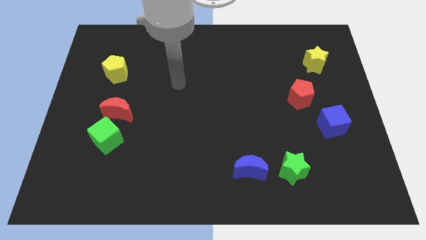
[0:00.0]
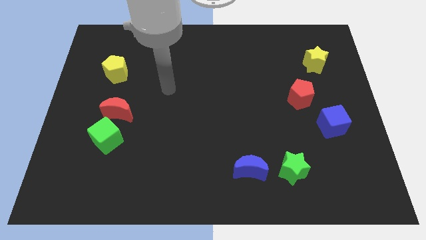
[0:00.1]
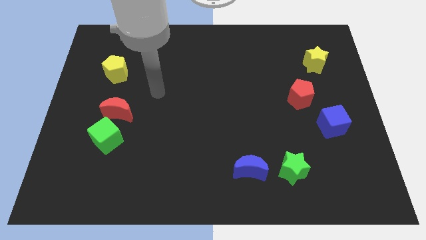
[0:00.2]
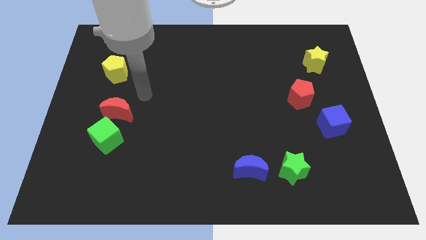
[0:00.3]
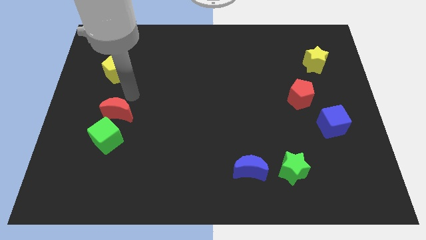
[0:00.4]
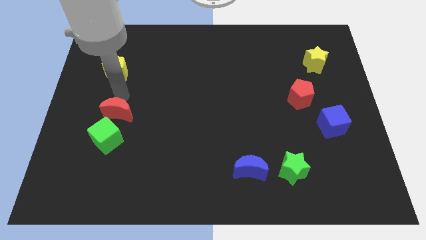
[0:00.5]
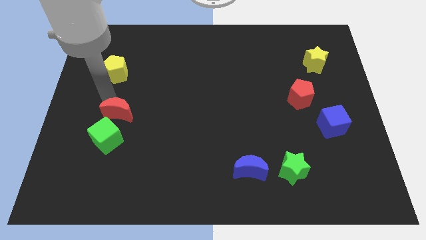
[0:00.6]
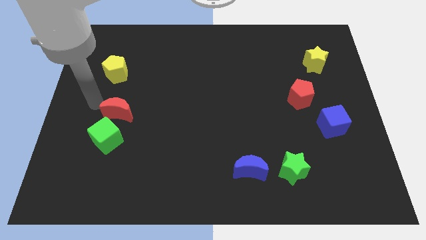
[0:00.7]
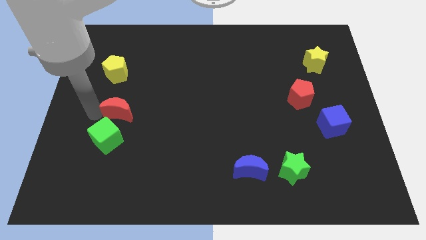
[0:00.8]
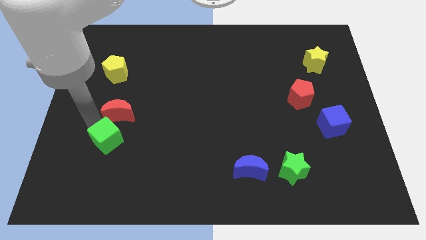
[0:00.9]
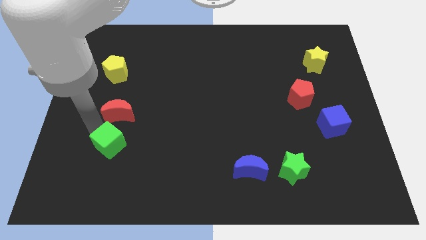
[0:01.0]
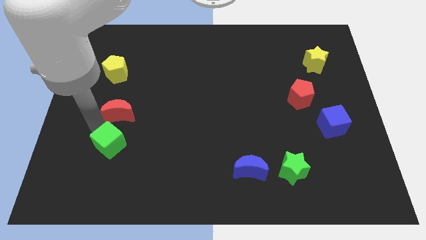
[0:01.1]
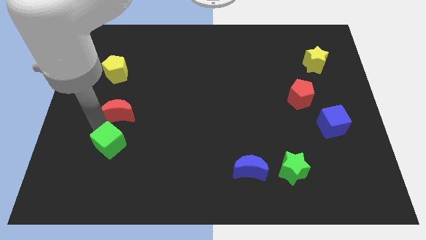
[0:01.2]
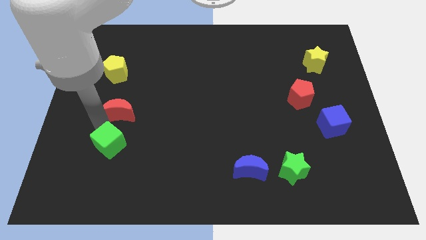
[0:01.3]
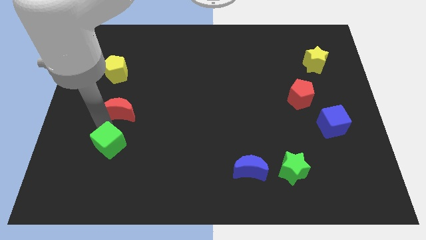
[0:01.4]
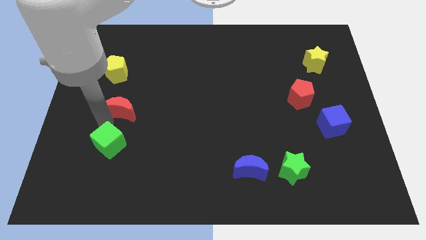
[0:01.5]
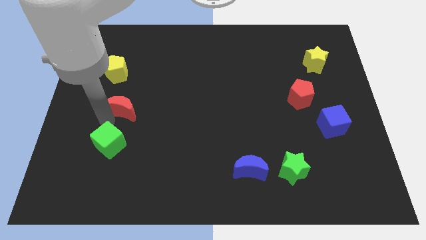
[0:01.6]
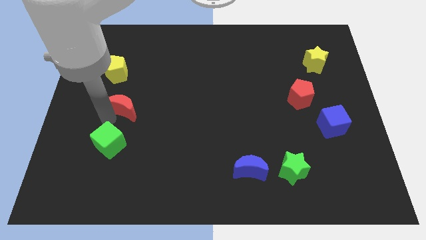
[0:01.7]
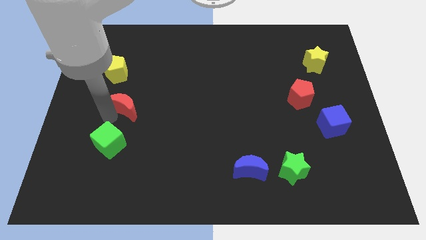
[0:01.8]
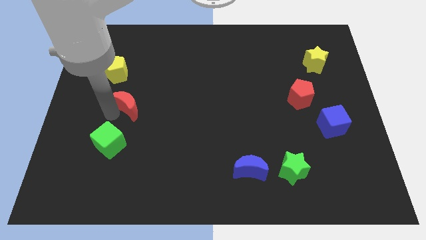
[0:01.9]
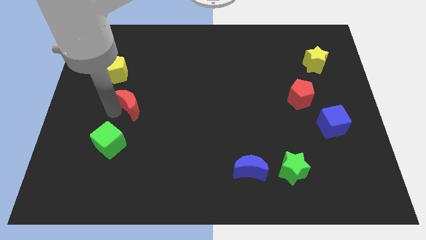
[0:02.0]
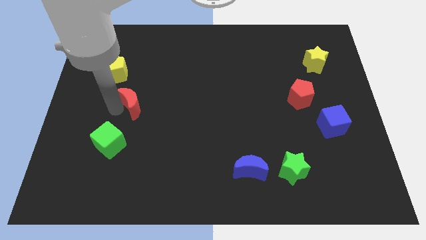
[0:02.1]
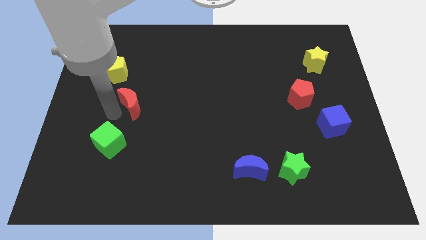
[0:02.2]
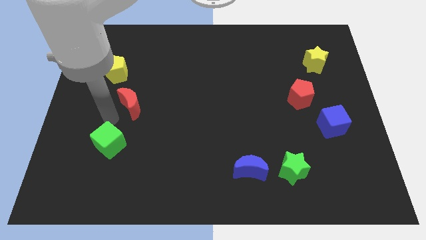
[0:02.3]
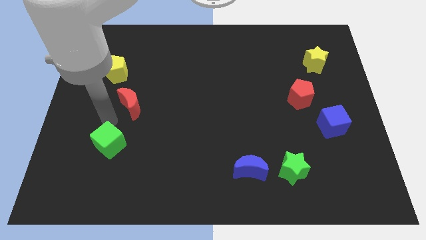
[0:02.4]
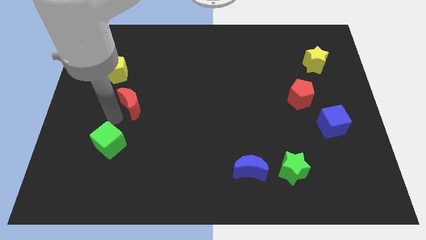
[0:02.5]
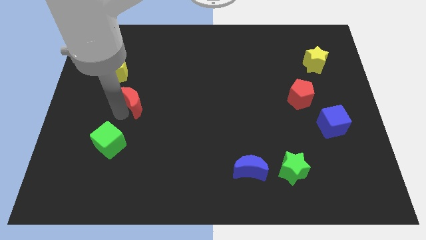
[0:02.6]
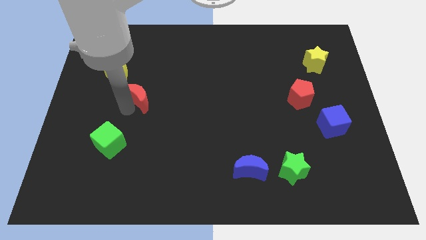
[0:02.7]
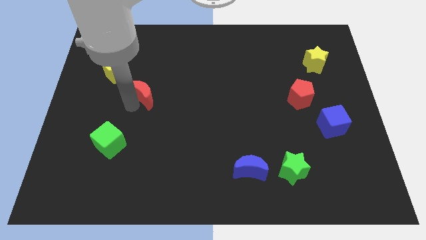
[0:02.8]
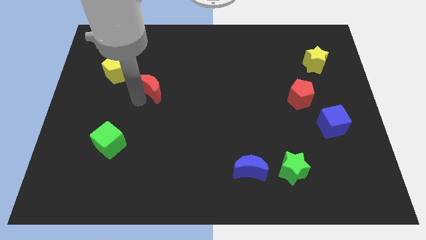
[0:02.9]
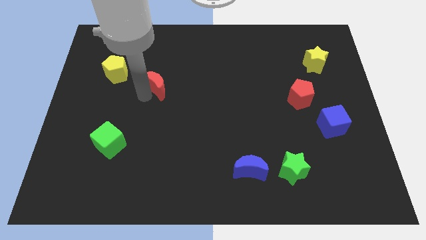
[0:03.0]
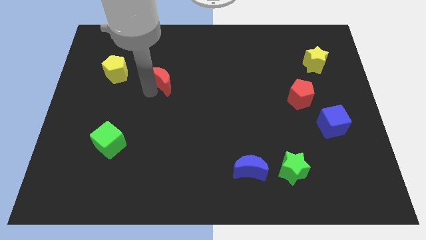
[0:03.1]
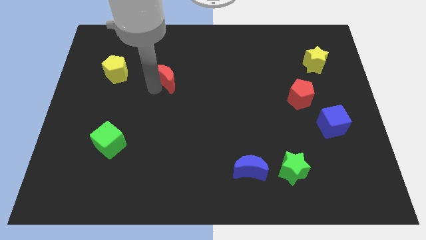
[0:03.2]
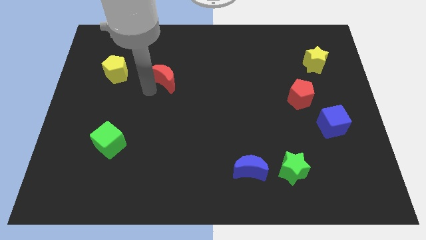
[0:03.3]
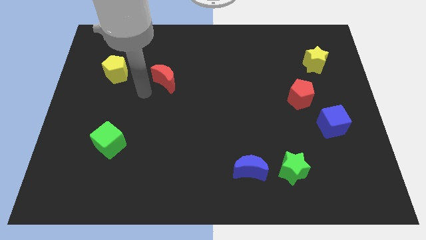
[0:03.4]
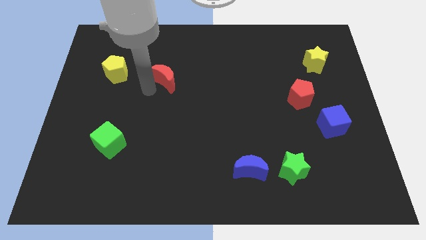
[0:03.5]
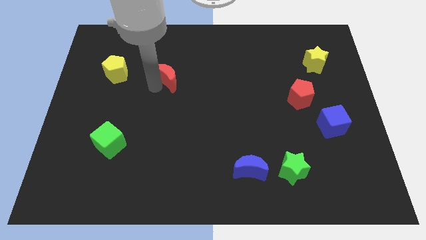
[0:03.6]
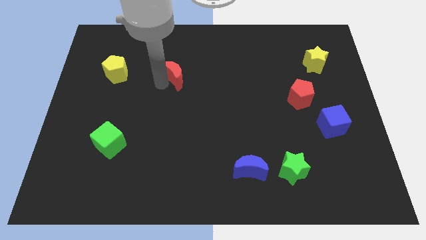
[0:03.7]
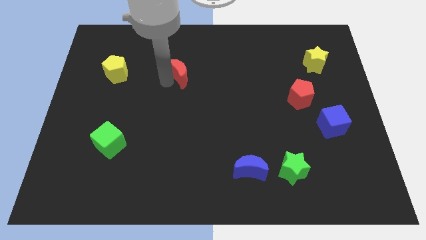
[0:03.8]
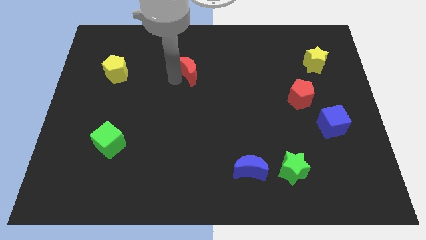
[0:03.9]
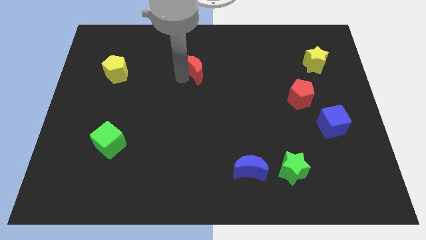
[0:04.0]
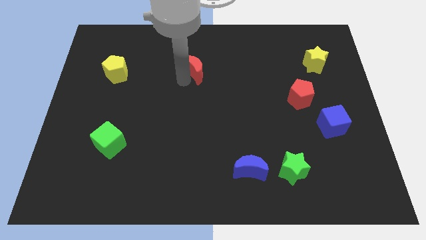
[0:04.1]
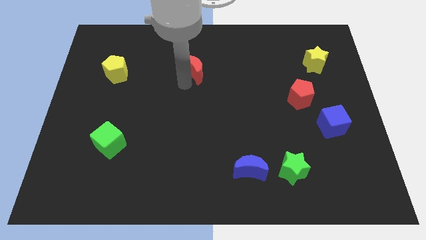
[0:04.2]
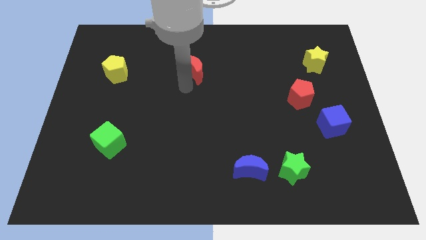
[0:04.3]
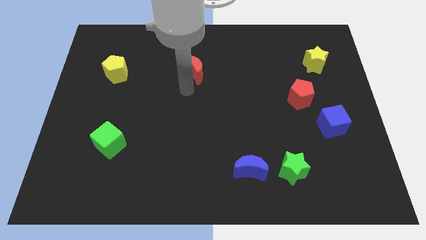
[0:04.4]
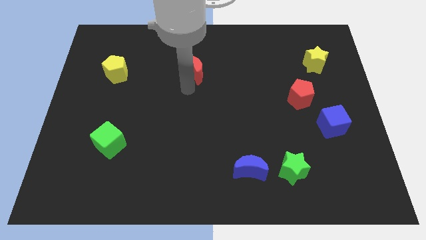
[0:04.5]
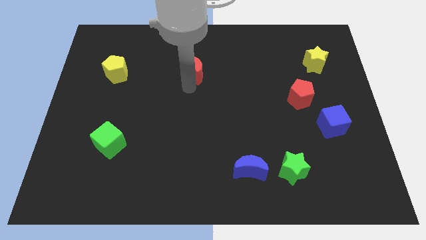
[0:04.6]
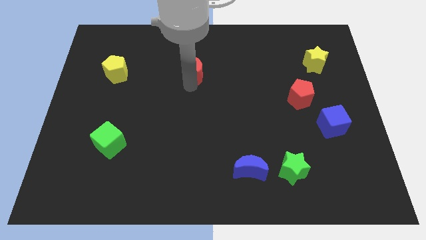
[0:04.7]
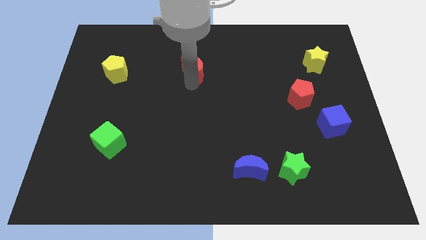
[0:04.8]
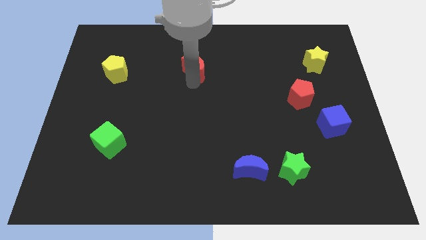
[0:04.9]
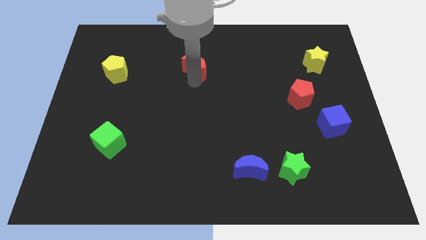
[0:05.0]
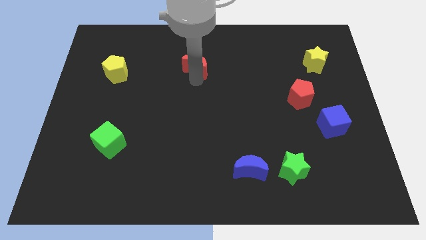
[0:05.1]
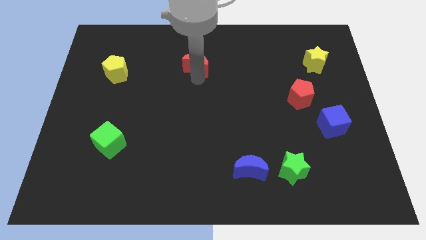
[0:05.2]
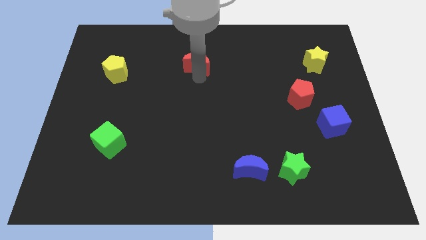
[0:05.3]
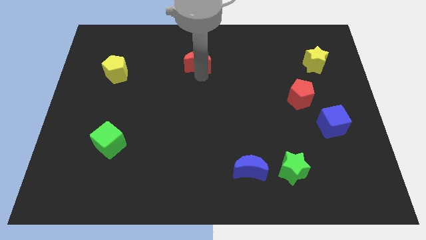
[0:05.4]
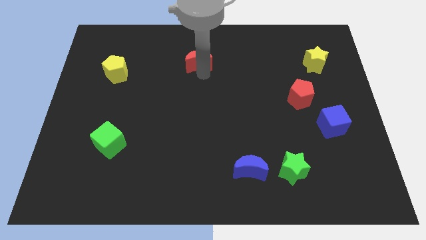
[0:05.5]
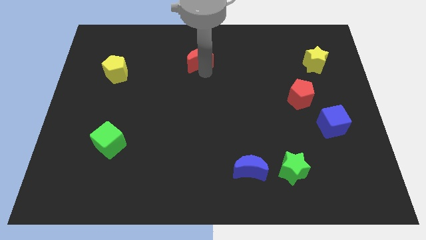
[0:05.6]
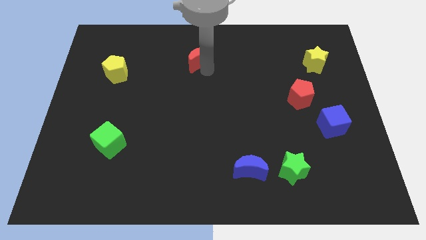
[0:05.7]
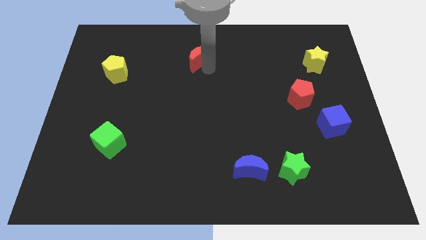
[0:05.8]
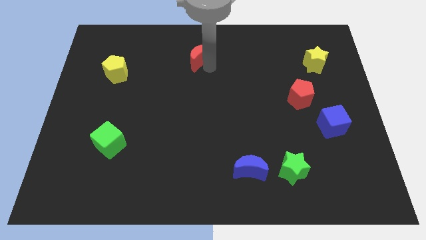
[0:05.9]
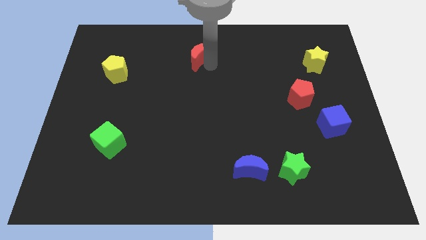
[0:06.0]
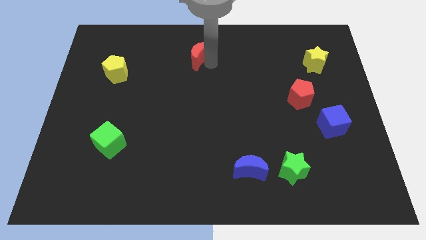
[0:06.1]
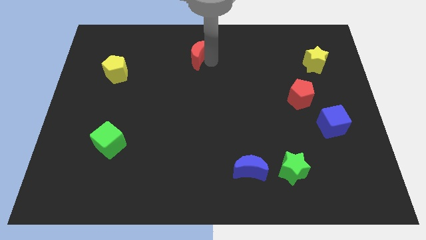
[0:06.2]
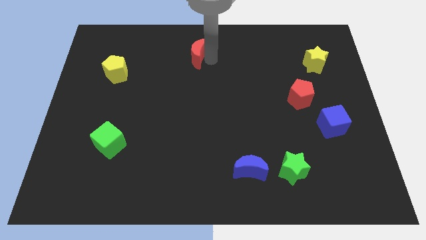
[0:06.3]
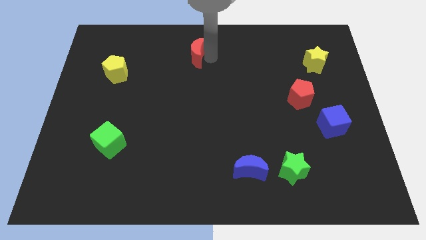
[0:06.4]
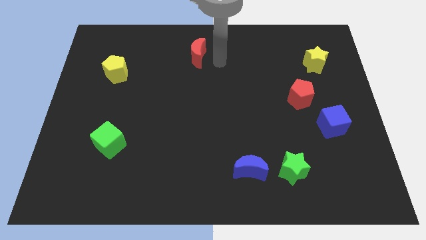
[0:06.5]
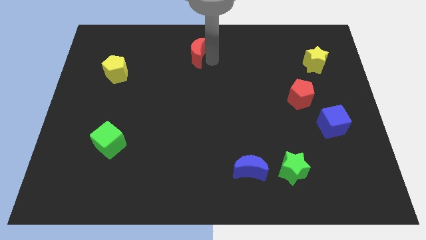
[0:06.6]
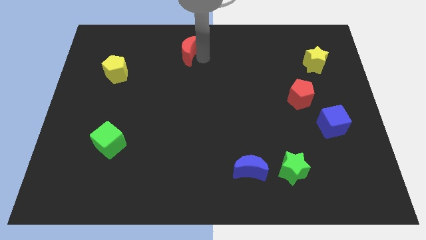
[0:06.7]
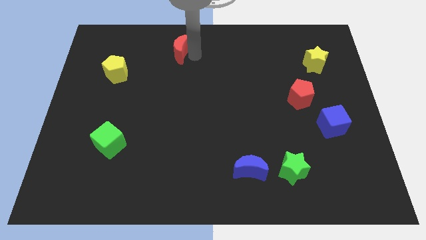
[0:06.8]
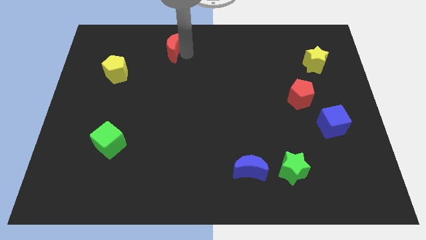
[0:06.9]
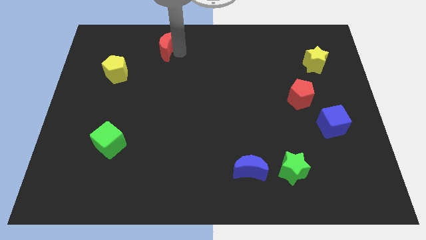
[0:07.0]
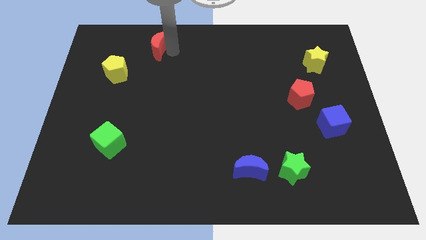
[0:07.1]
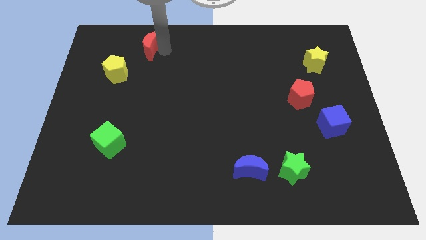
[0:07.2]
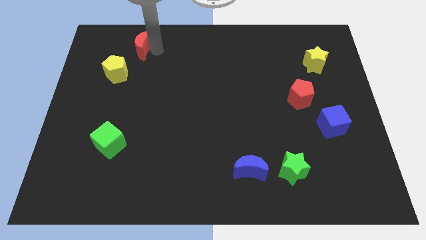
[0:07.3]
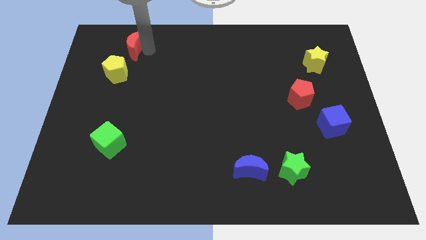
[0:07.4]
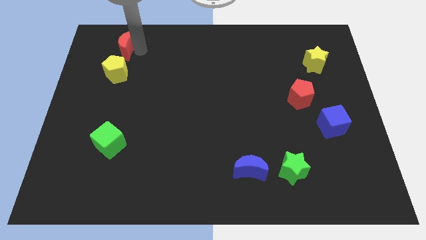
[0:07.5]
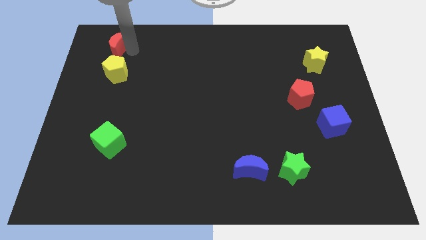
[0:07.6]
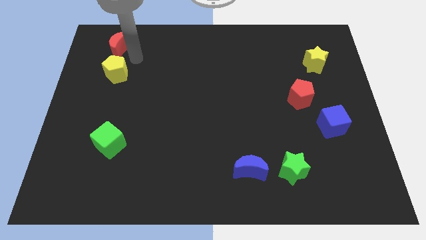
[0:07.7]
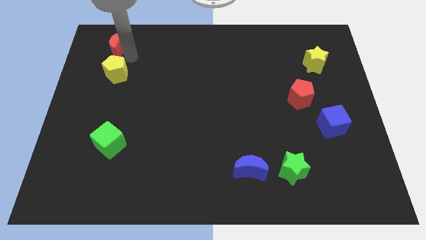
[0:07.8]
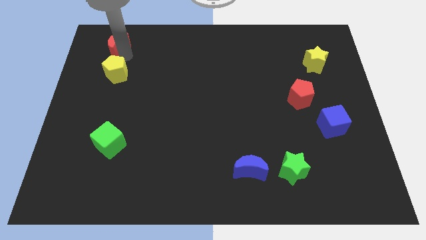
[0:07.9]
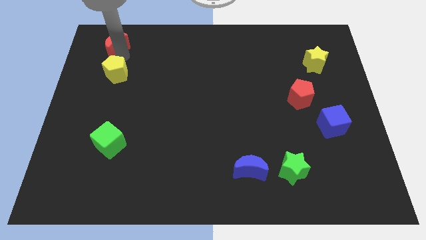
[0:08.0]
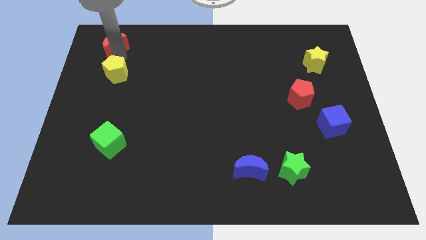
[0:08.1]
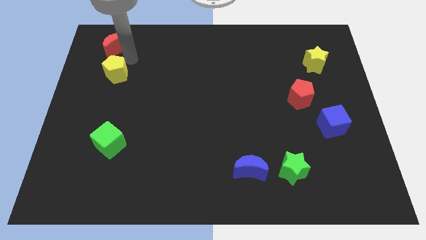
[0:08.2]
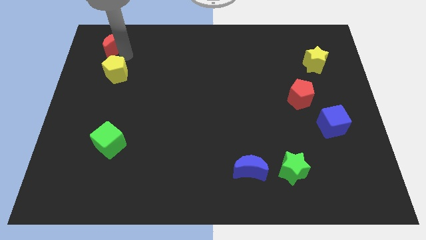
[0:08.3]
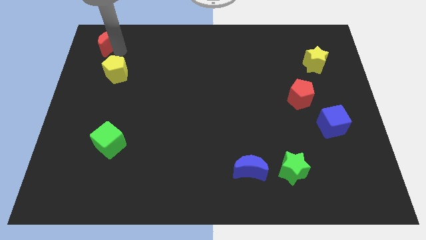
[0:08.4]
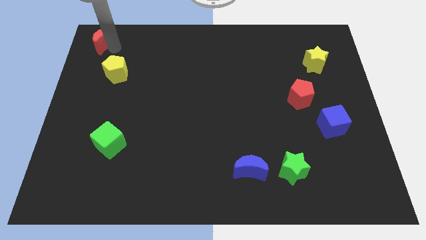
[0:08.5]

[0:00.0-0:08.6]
move the red moon to the top left corner
